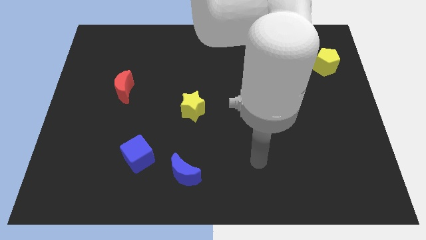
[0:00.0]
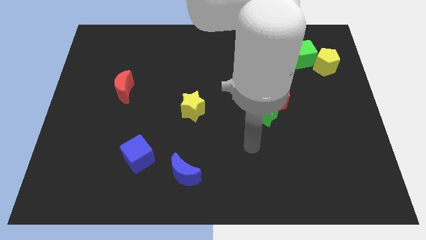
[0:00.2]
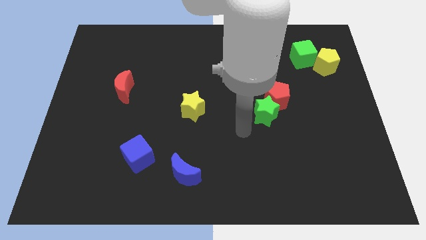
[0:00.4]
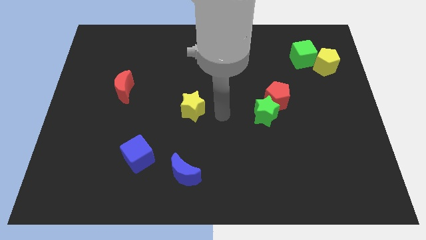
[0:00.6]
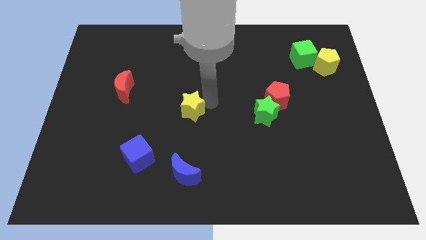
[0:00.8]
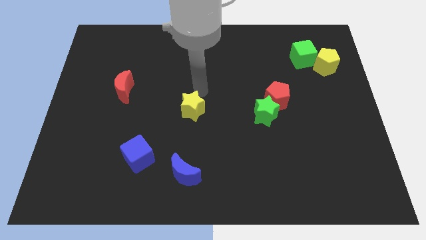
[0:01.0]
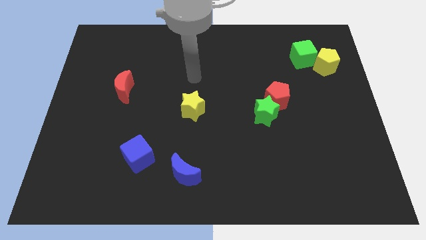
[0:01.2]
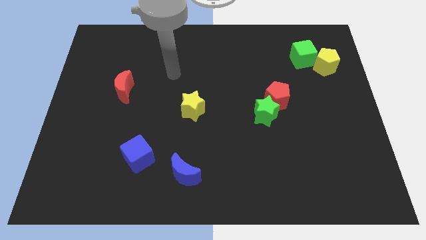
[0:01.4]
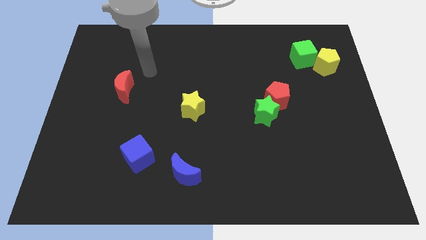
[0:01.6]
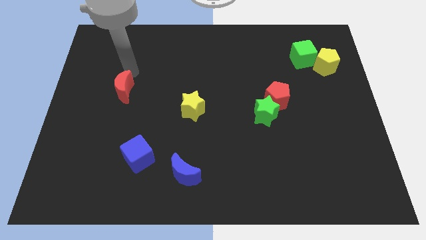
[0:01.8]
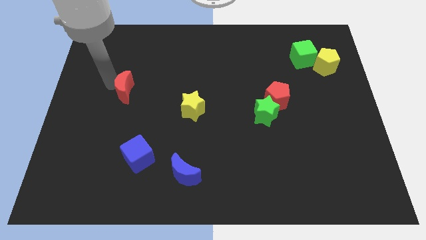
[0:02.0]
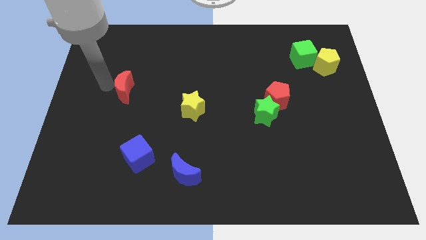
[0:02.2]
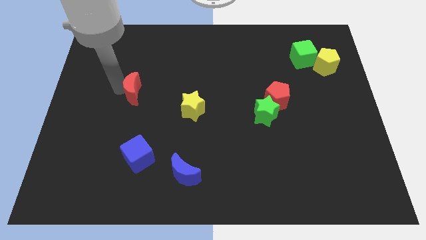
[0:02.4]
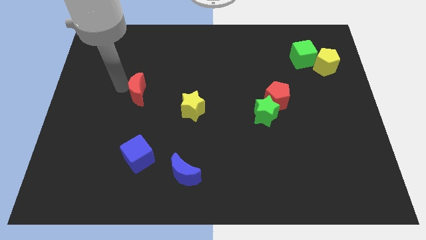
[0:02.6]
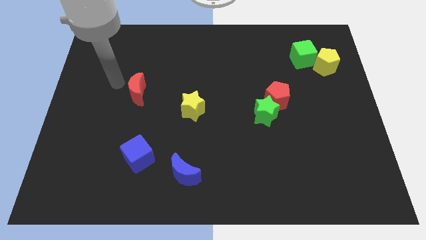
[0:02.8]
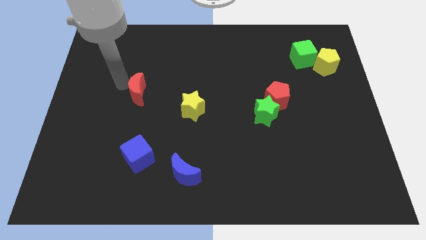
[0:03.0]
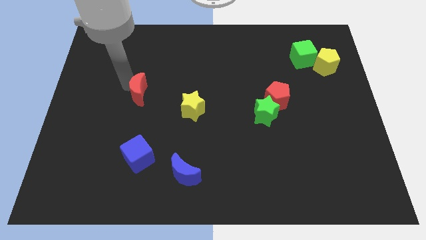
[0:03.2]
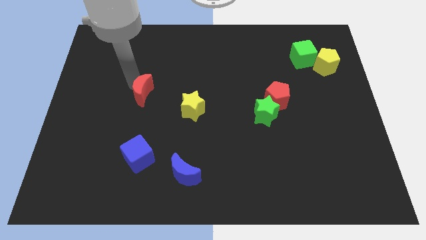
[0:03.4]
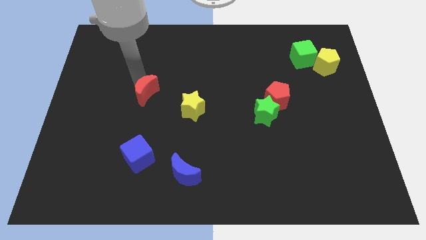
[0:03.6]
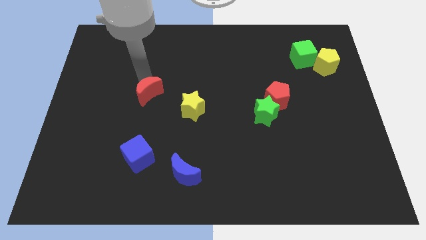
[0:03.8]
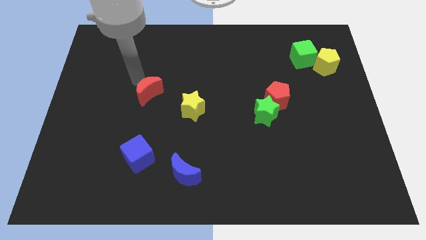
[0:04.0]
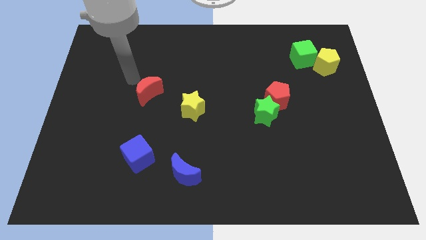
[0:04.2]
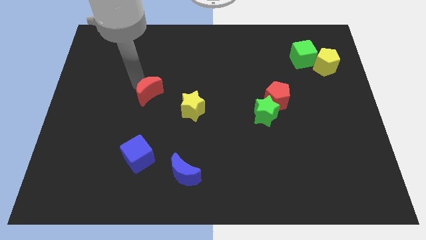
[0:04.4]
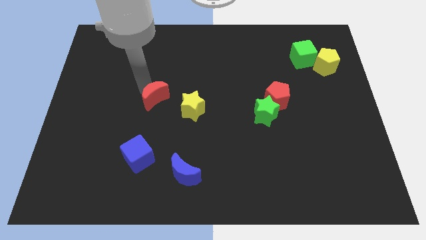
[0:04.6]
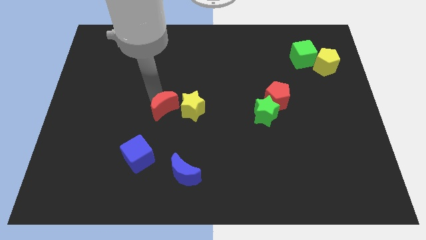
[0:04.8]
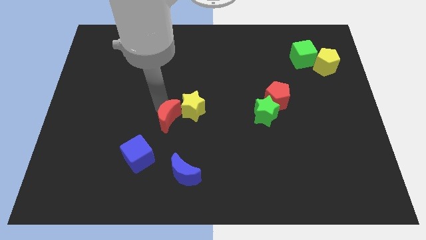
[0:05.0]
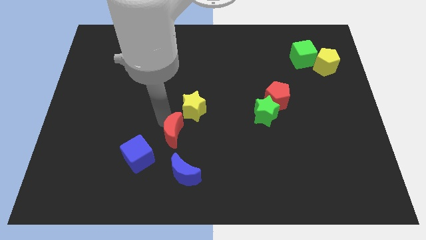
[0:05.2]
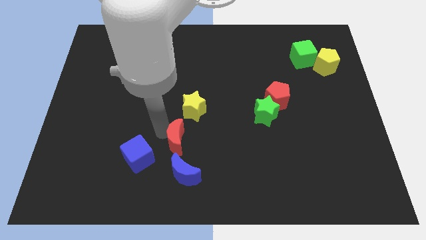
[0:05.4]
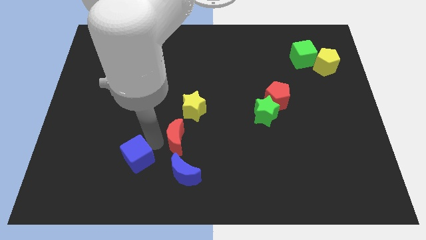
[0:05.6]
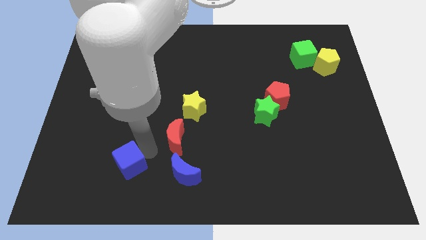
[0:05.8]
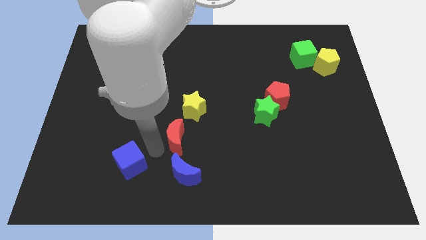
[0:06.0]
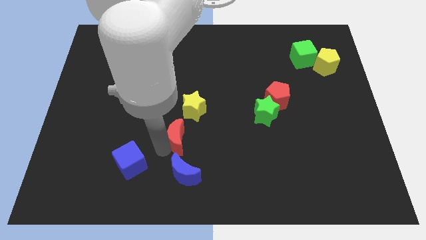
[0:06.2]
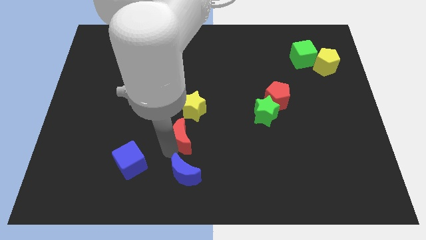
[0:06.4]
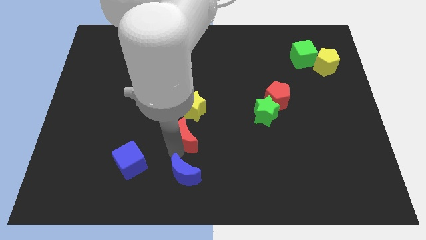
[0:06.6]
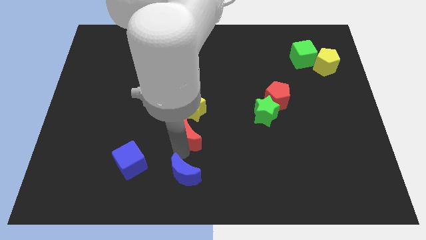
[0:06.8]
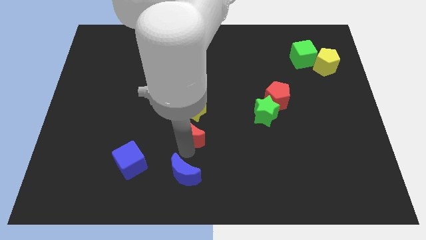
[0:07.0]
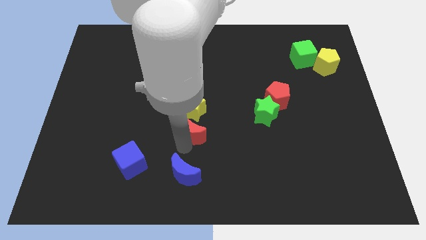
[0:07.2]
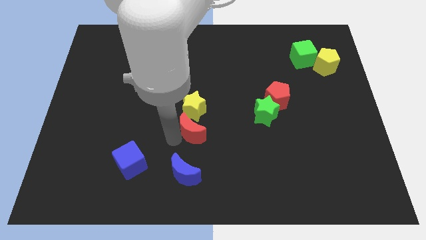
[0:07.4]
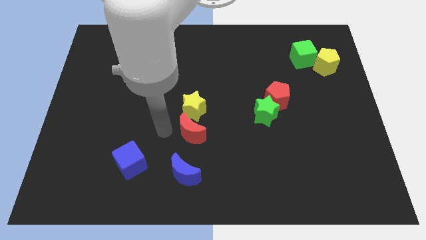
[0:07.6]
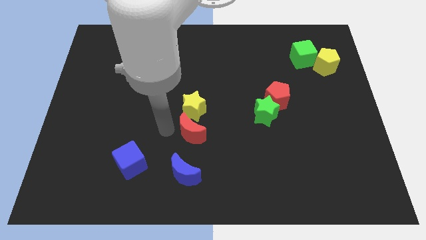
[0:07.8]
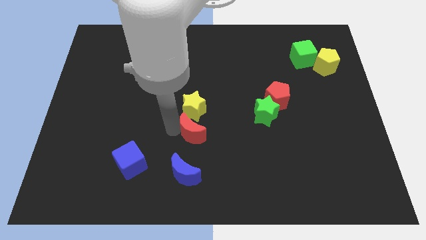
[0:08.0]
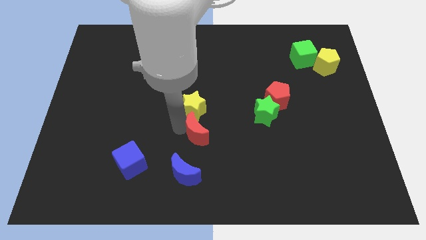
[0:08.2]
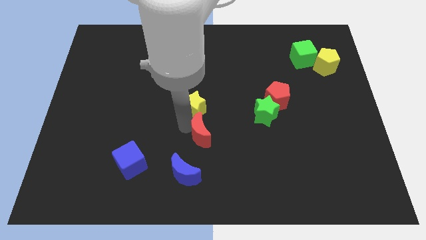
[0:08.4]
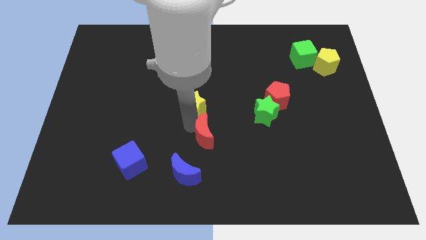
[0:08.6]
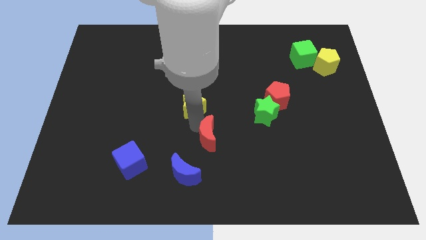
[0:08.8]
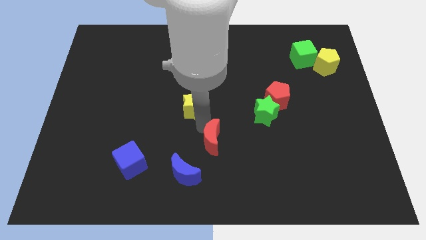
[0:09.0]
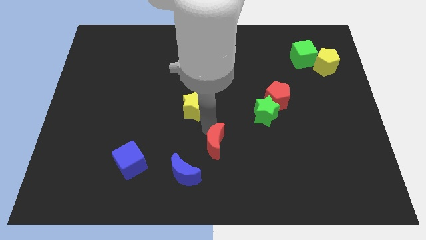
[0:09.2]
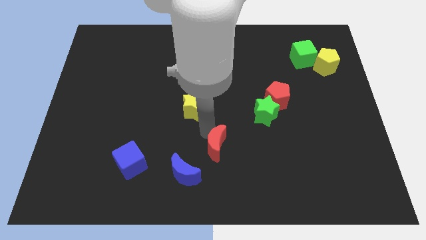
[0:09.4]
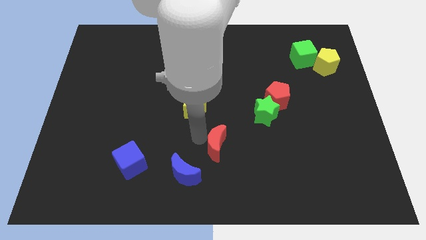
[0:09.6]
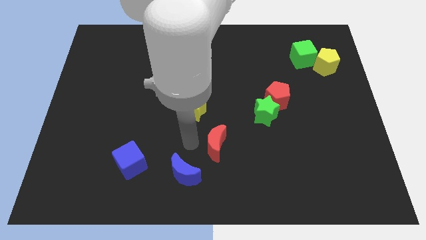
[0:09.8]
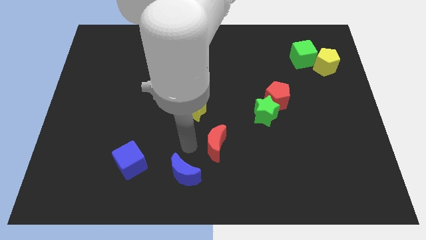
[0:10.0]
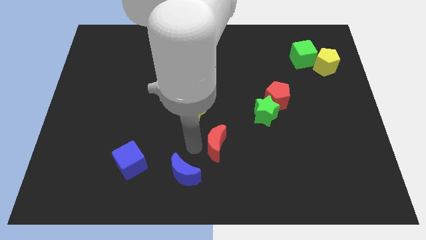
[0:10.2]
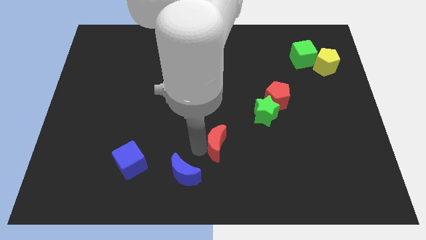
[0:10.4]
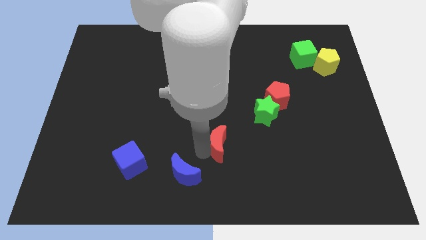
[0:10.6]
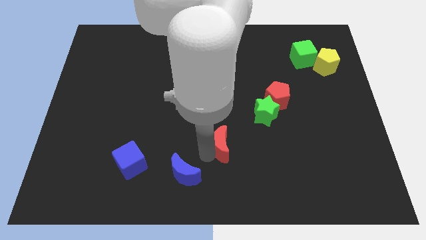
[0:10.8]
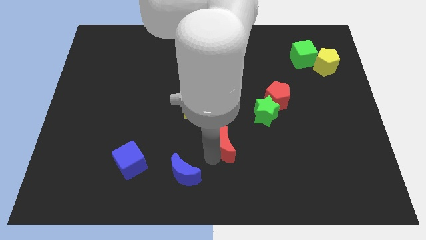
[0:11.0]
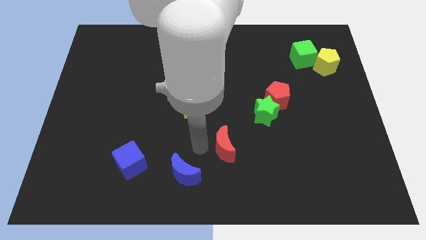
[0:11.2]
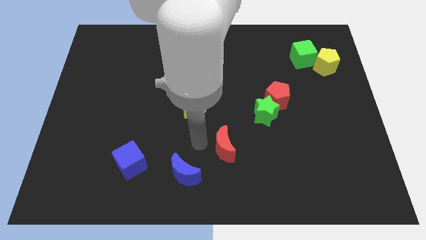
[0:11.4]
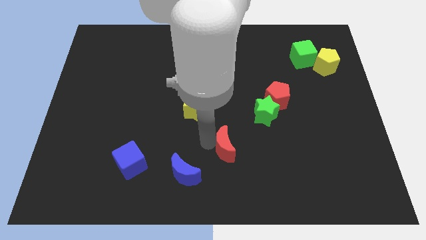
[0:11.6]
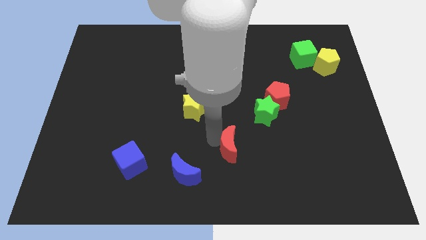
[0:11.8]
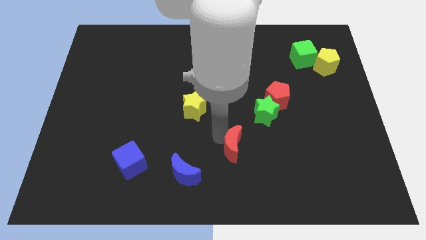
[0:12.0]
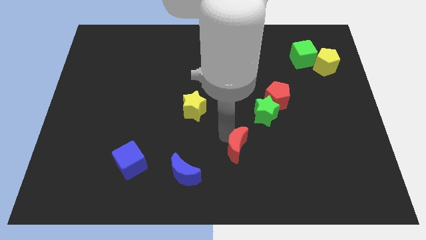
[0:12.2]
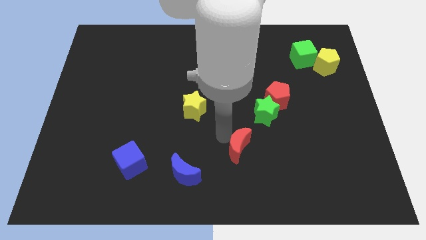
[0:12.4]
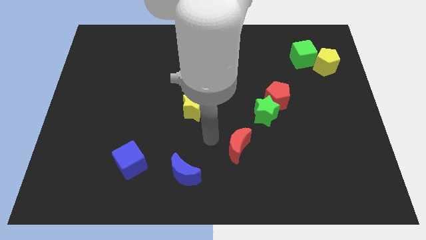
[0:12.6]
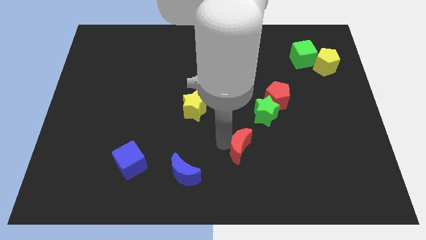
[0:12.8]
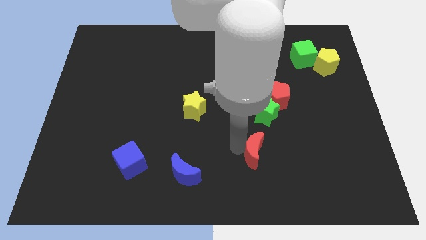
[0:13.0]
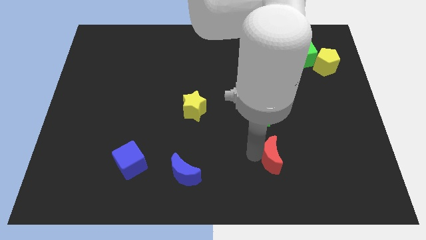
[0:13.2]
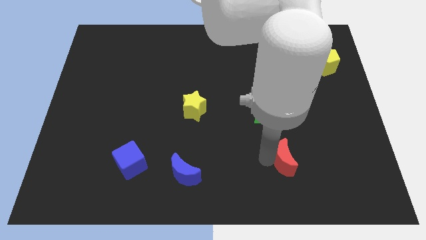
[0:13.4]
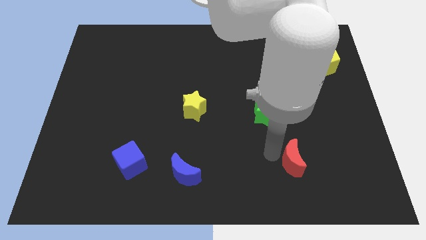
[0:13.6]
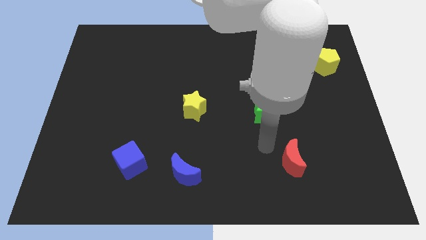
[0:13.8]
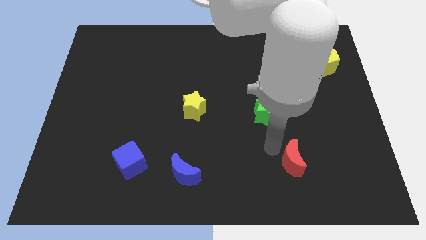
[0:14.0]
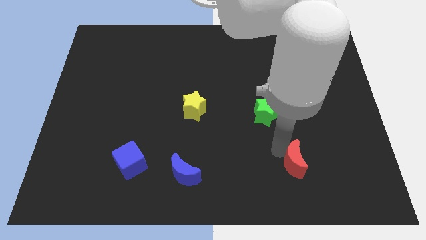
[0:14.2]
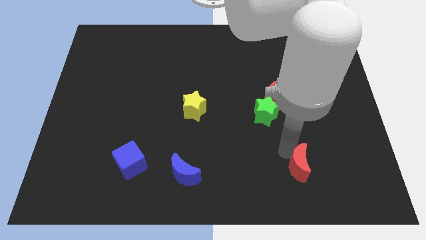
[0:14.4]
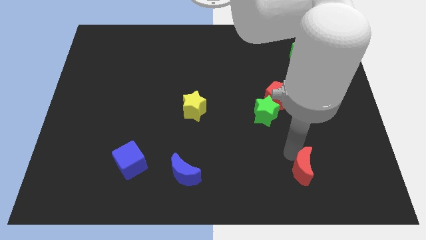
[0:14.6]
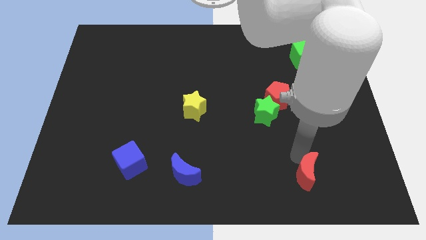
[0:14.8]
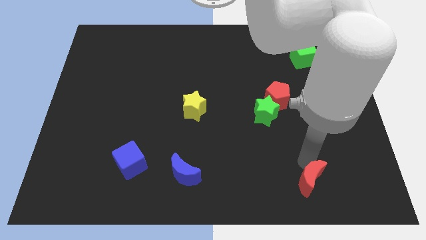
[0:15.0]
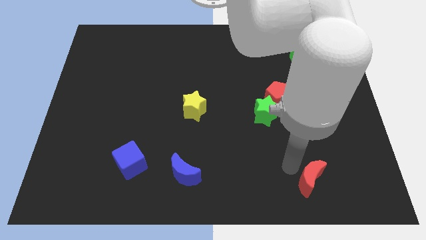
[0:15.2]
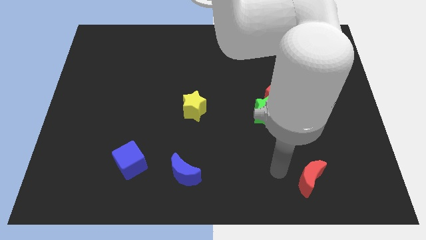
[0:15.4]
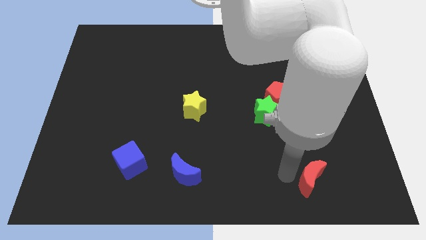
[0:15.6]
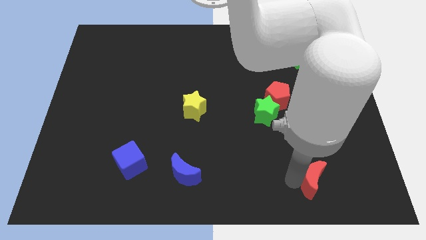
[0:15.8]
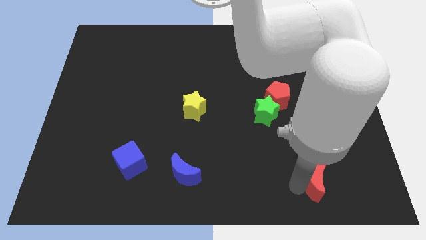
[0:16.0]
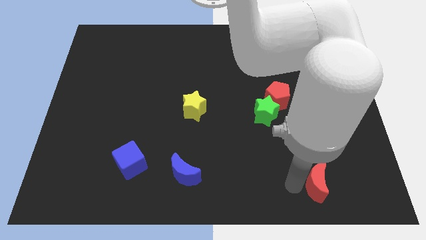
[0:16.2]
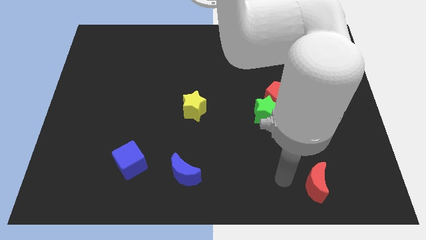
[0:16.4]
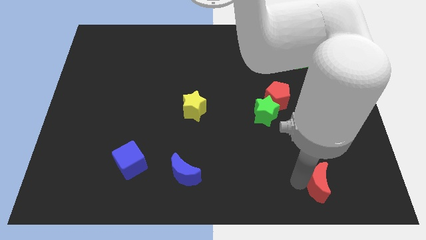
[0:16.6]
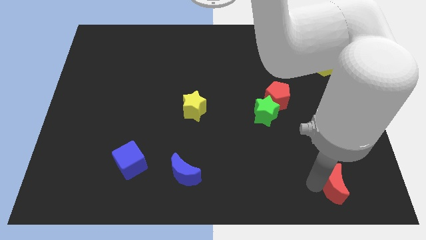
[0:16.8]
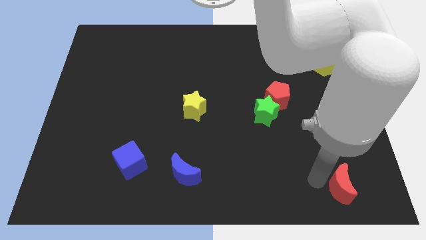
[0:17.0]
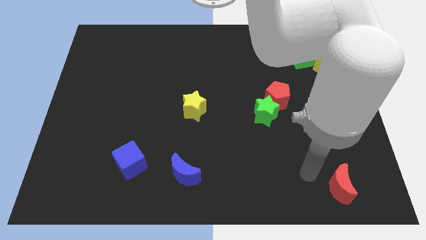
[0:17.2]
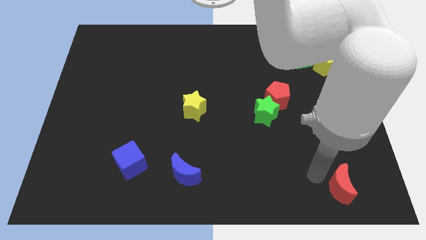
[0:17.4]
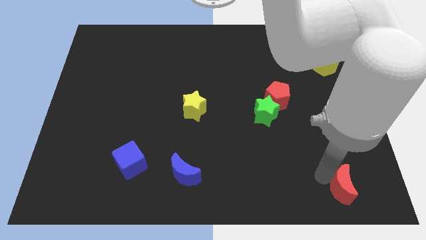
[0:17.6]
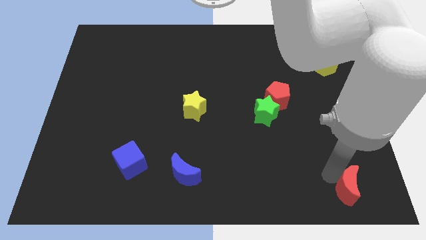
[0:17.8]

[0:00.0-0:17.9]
put the red moon to the bottom right corner
